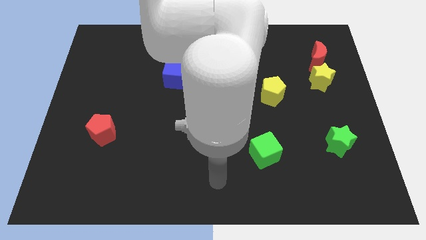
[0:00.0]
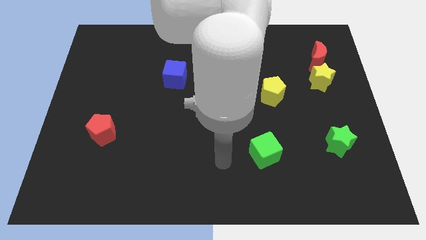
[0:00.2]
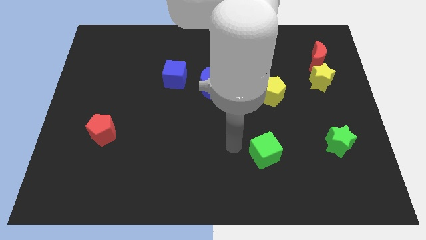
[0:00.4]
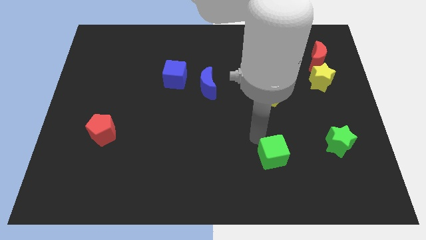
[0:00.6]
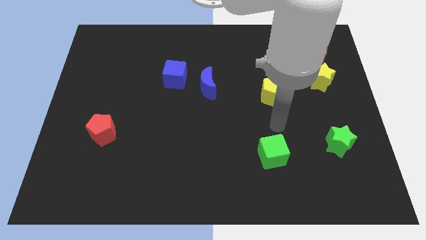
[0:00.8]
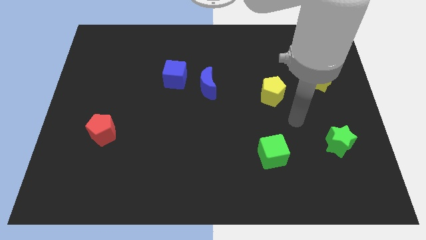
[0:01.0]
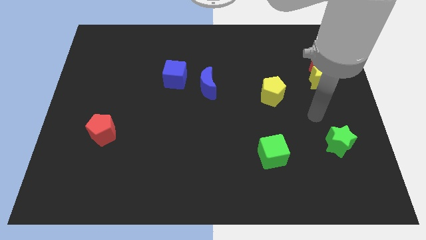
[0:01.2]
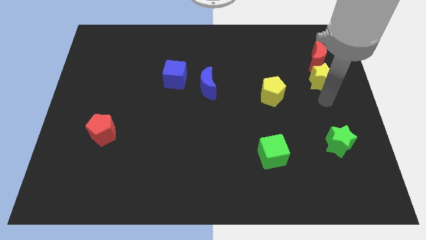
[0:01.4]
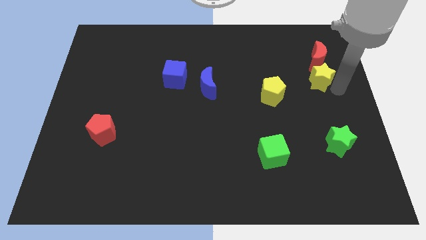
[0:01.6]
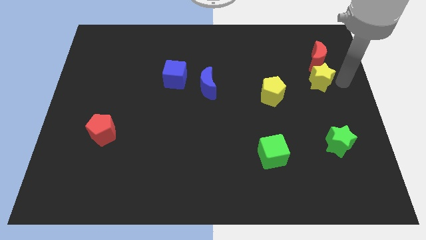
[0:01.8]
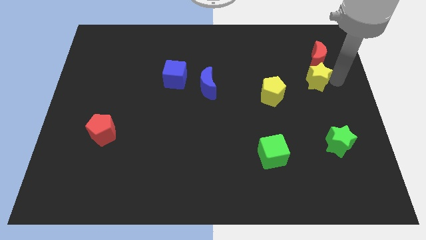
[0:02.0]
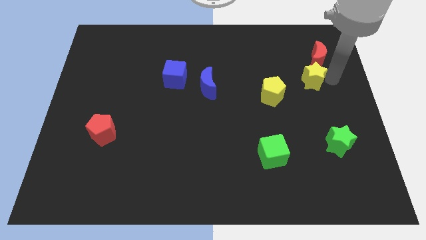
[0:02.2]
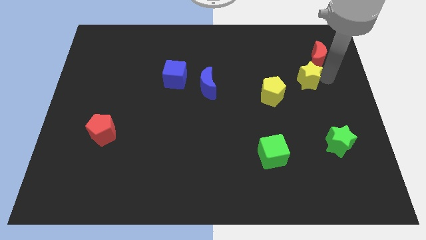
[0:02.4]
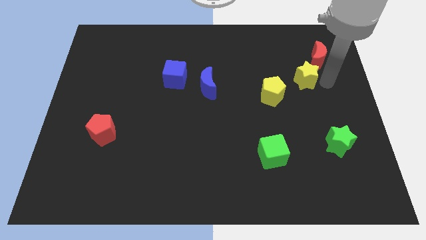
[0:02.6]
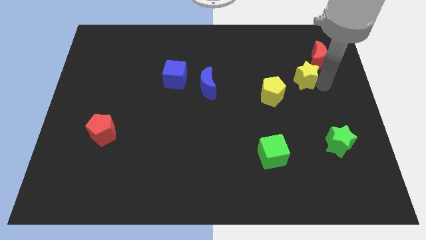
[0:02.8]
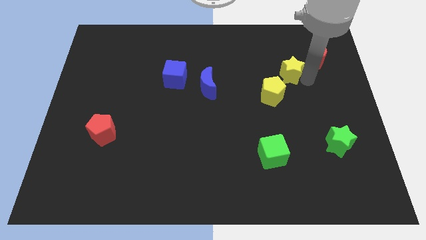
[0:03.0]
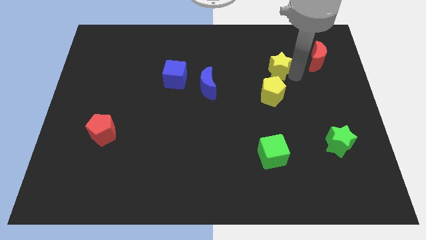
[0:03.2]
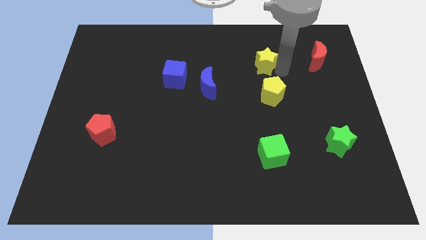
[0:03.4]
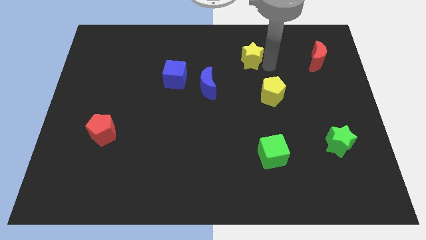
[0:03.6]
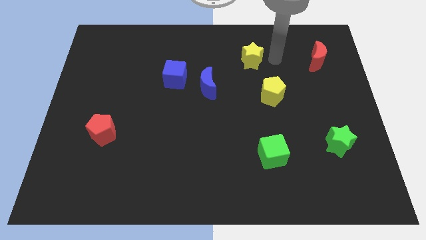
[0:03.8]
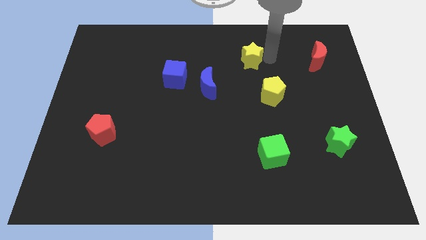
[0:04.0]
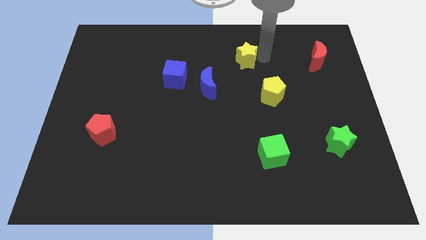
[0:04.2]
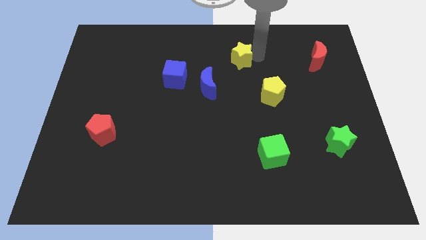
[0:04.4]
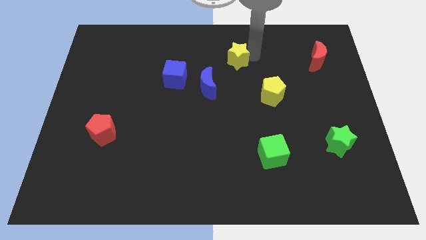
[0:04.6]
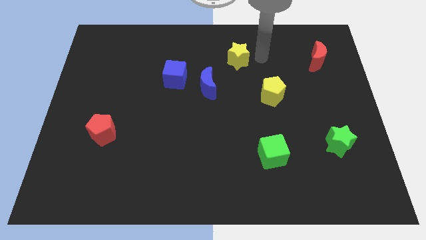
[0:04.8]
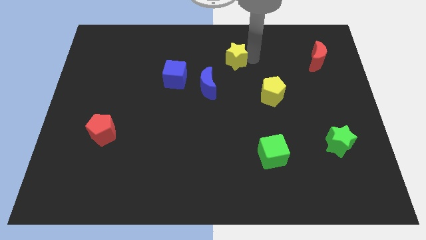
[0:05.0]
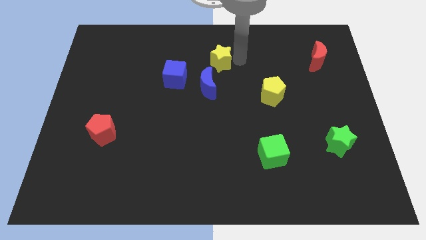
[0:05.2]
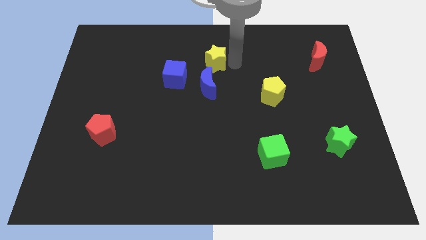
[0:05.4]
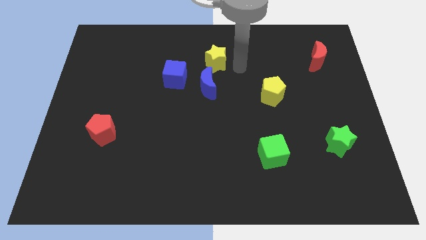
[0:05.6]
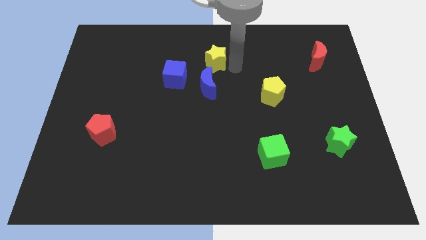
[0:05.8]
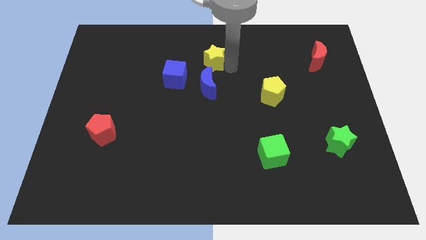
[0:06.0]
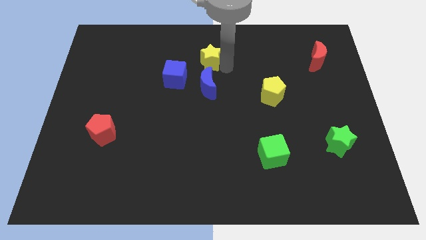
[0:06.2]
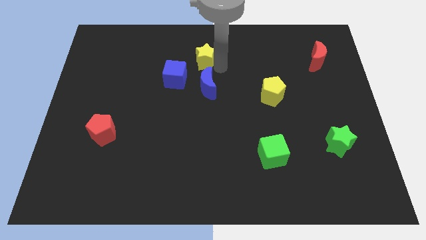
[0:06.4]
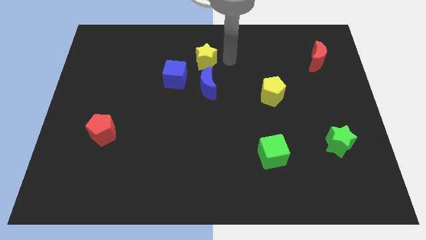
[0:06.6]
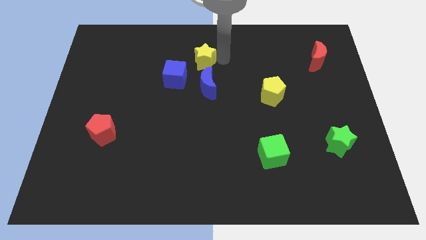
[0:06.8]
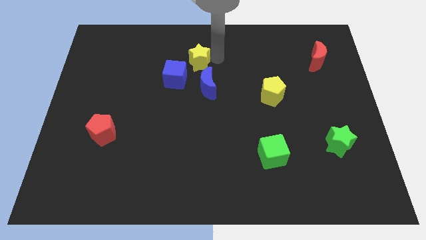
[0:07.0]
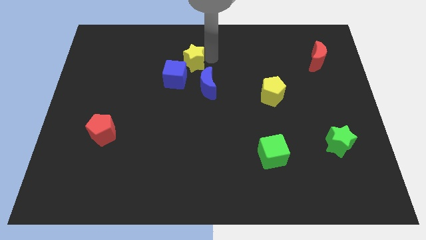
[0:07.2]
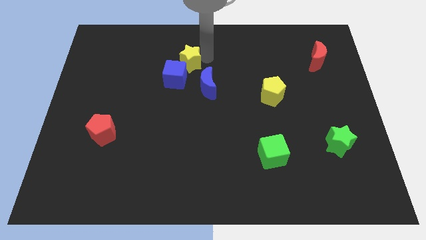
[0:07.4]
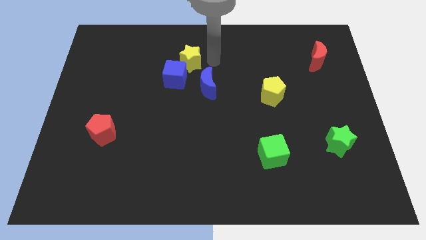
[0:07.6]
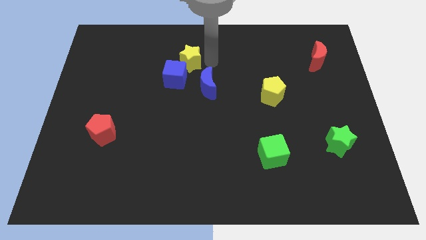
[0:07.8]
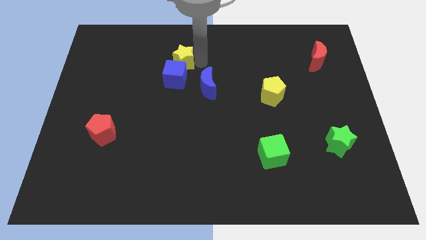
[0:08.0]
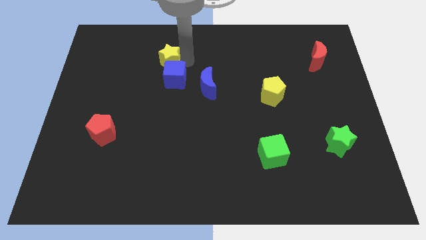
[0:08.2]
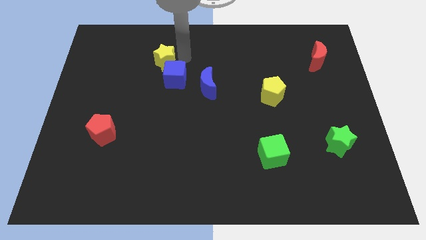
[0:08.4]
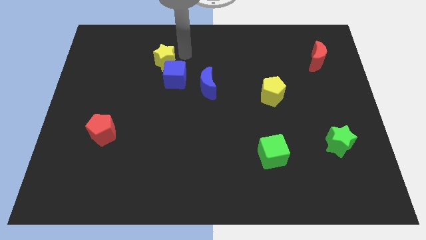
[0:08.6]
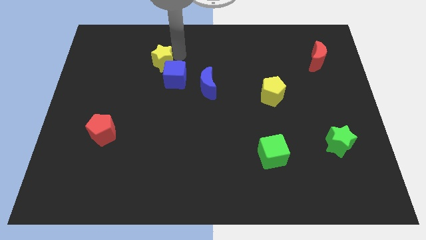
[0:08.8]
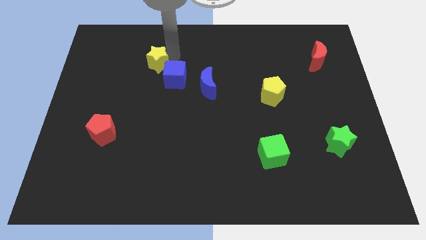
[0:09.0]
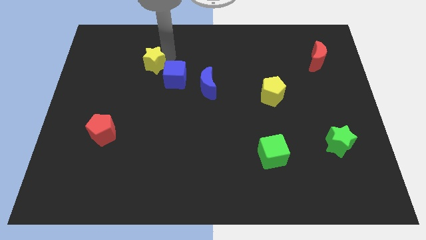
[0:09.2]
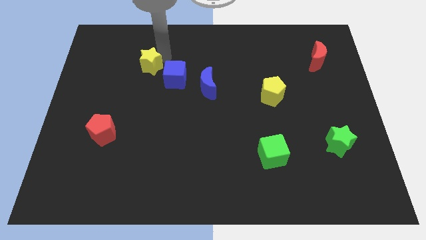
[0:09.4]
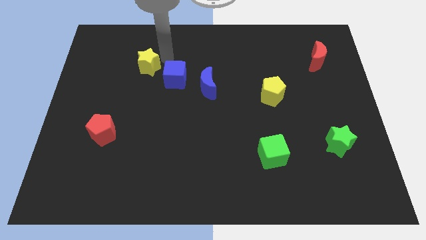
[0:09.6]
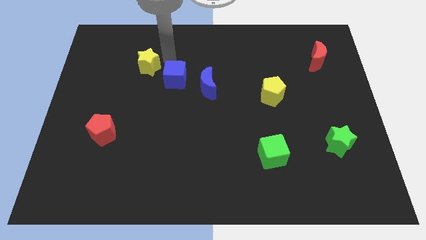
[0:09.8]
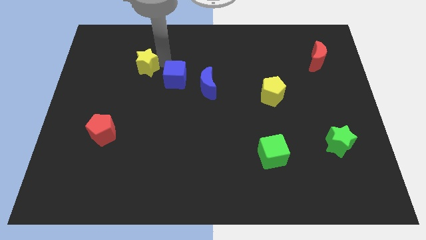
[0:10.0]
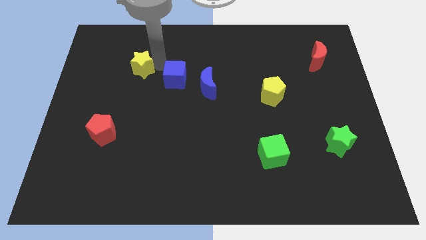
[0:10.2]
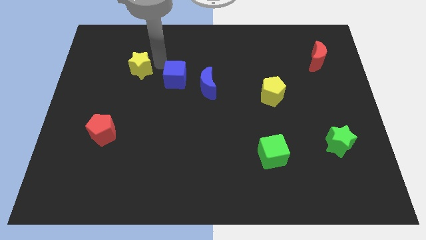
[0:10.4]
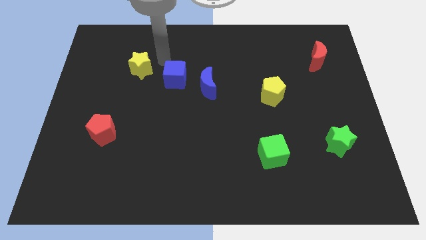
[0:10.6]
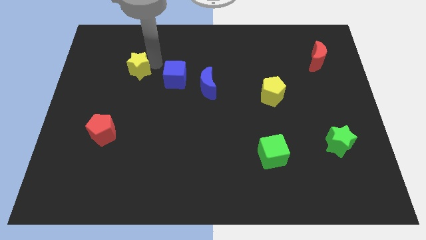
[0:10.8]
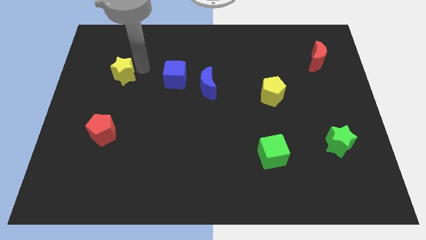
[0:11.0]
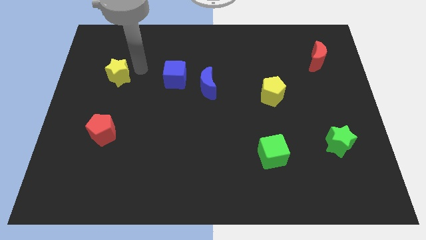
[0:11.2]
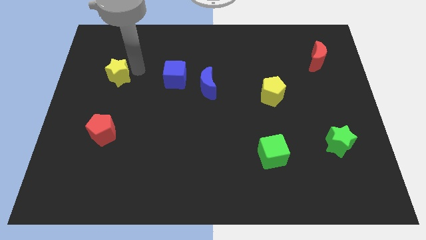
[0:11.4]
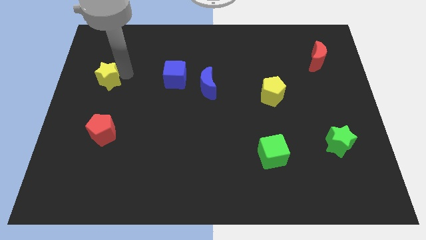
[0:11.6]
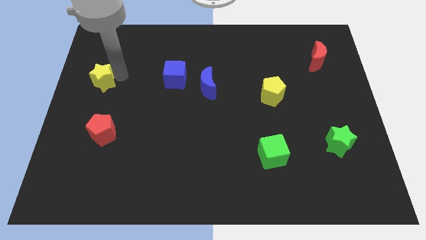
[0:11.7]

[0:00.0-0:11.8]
move the yellow star to the center left
